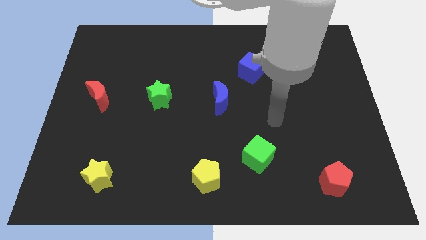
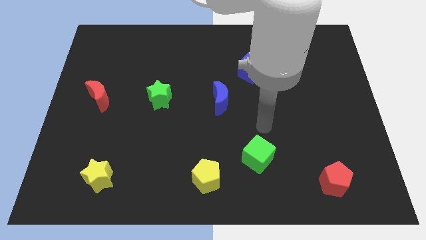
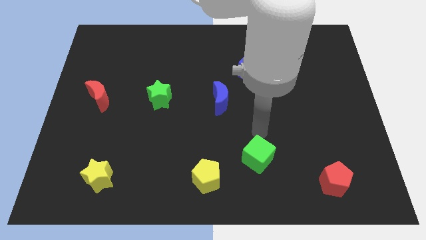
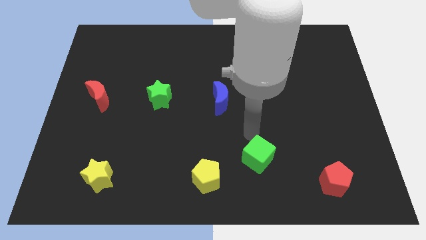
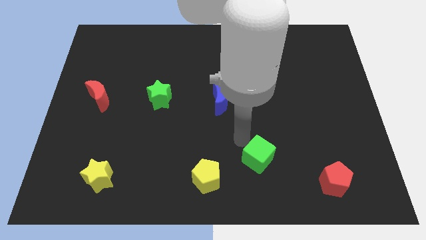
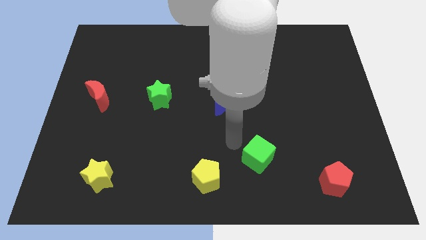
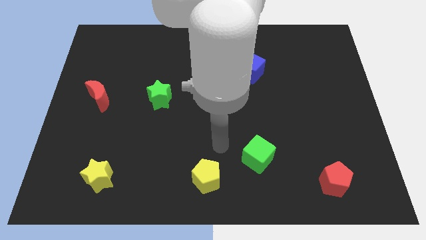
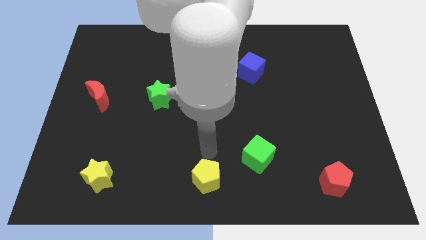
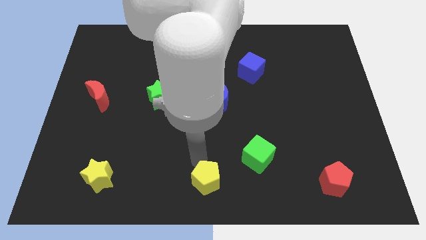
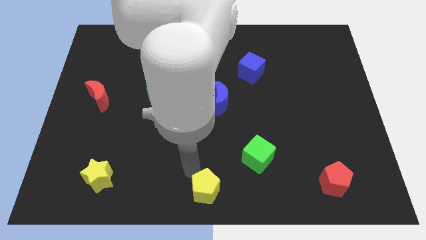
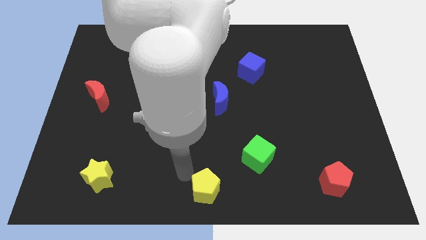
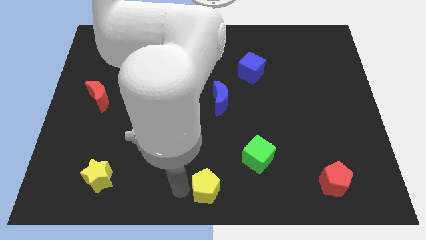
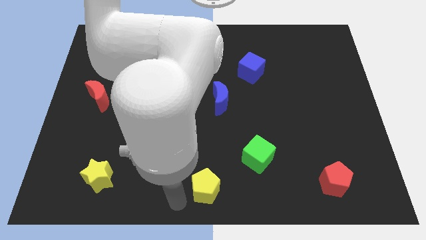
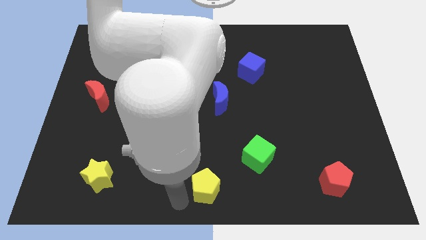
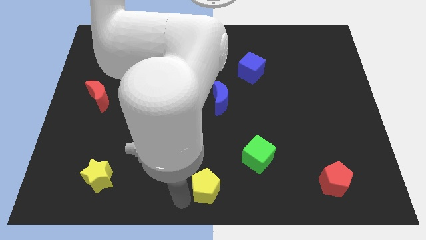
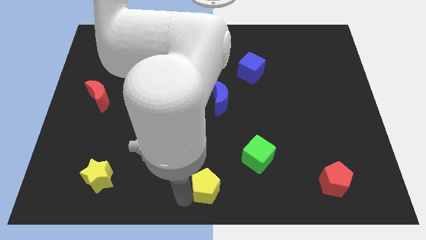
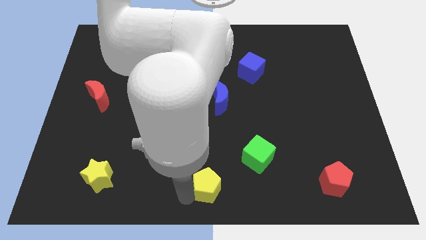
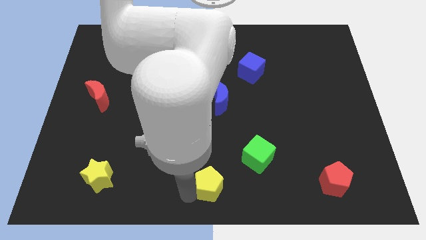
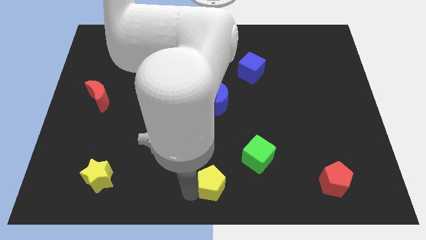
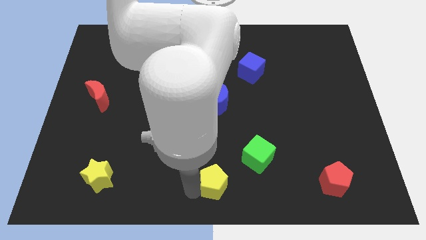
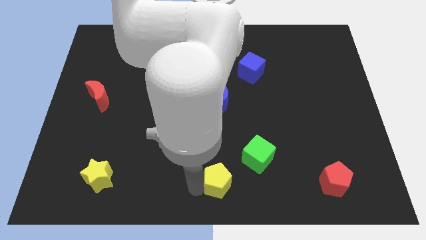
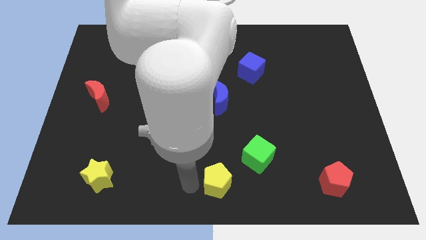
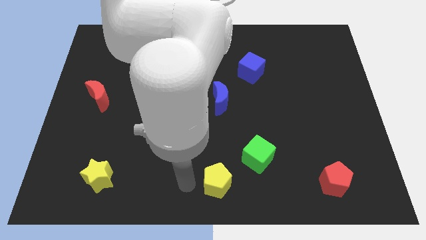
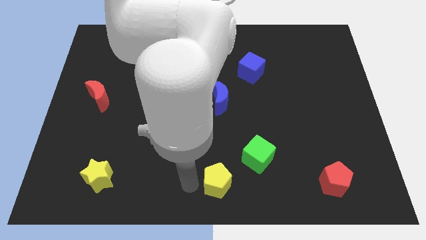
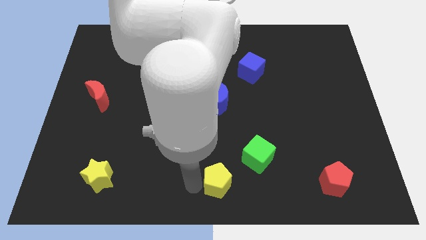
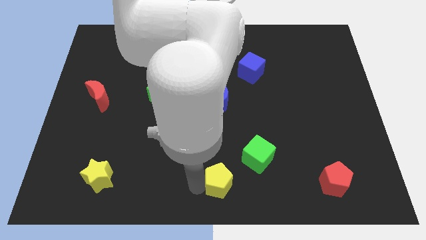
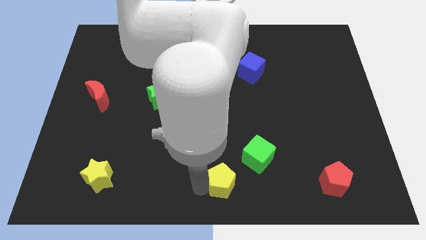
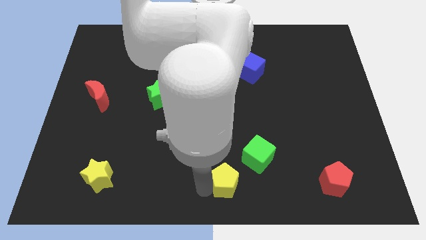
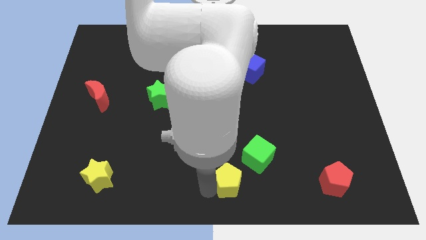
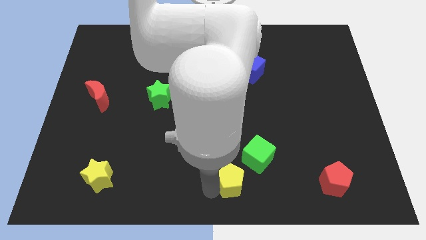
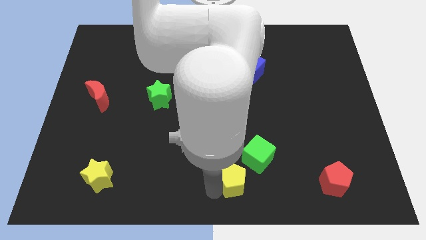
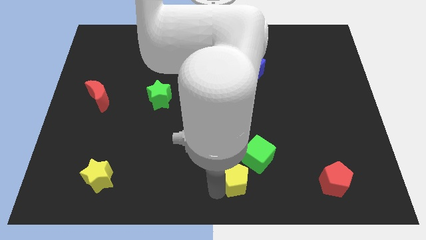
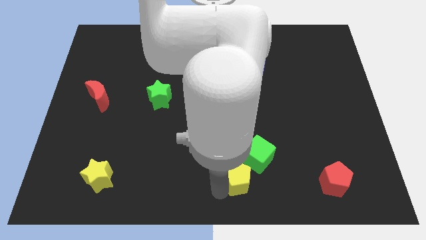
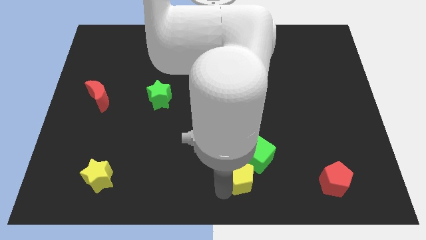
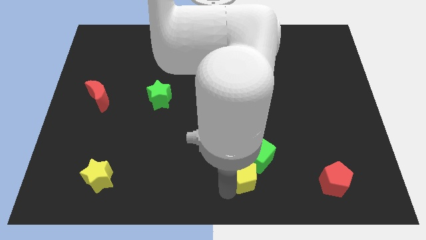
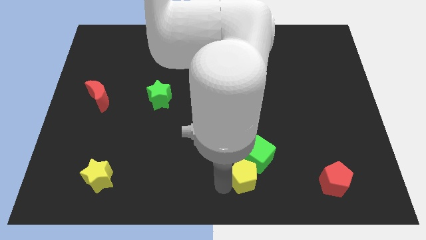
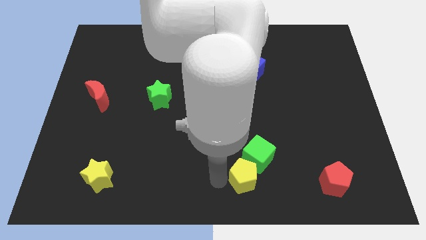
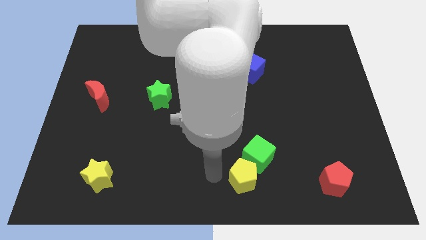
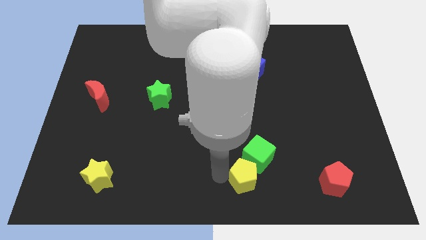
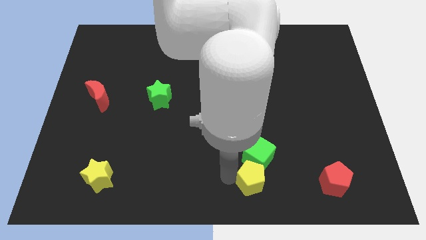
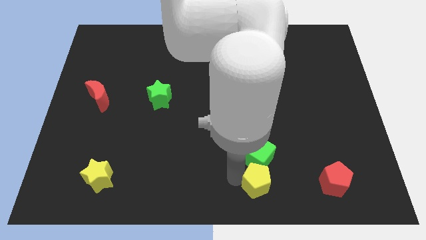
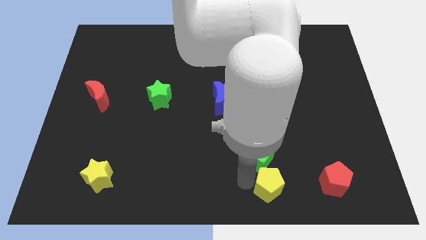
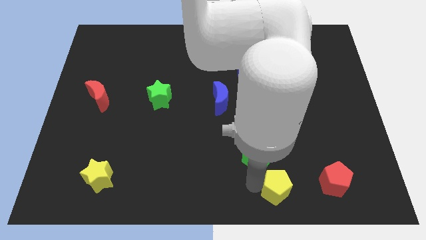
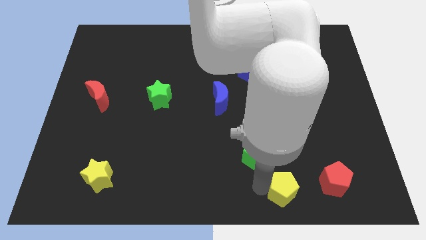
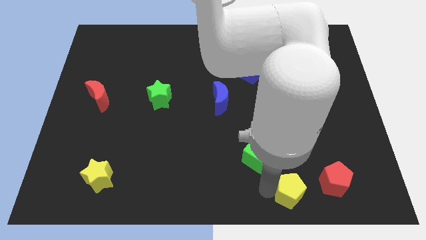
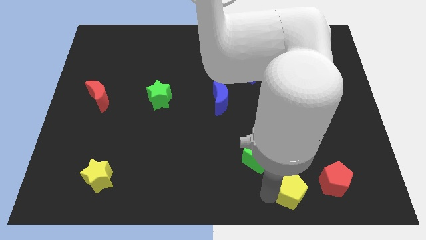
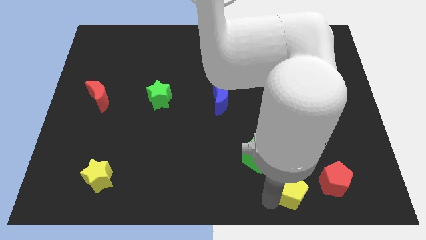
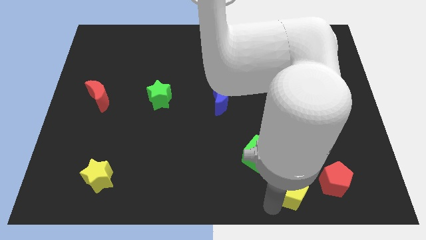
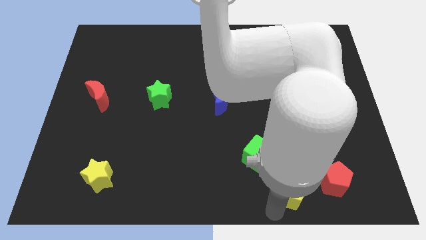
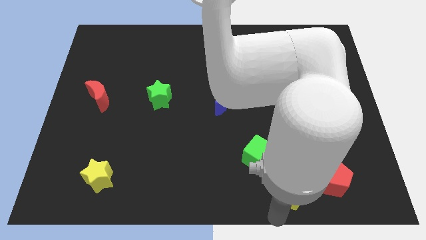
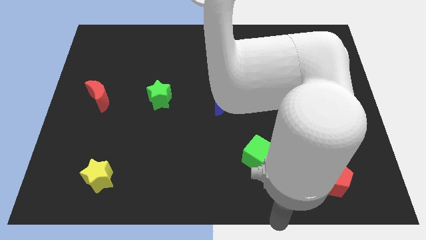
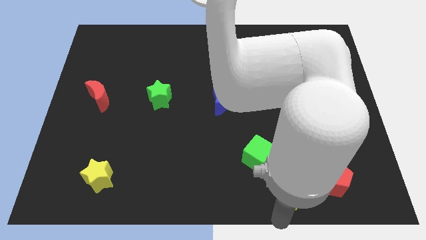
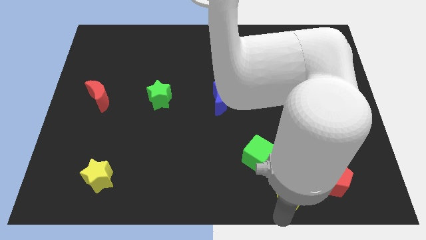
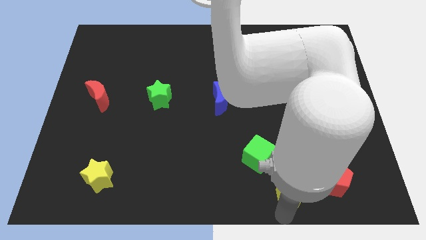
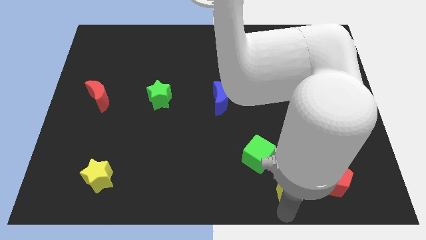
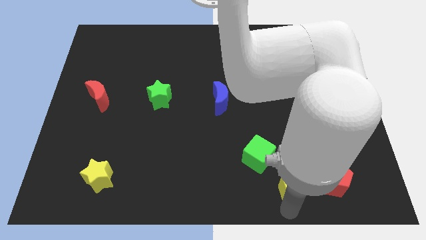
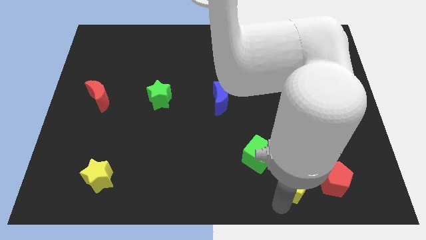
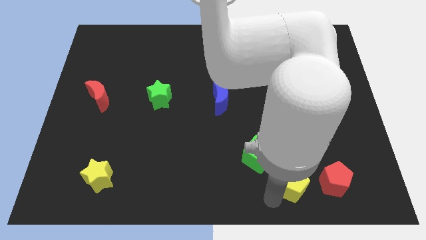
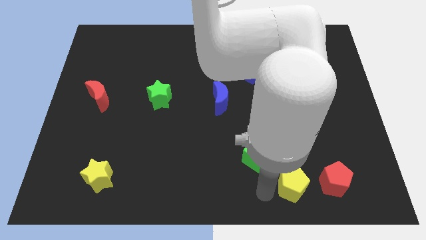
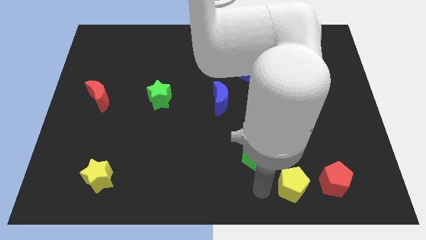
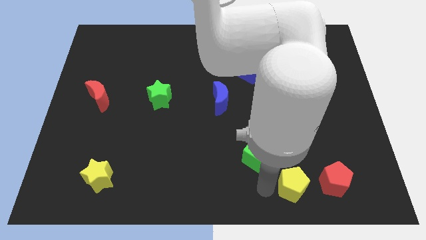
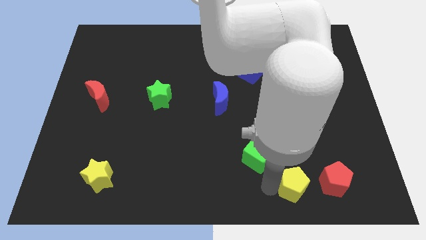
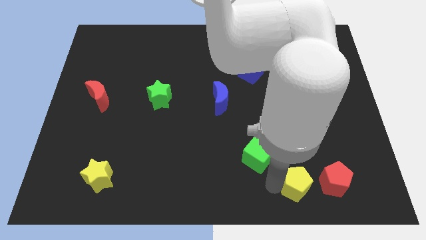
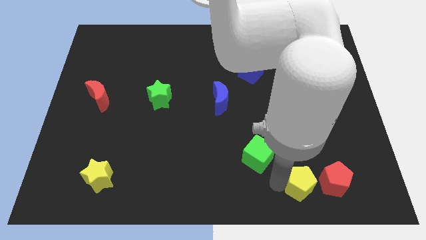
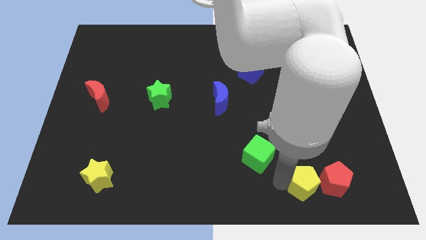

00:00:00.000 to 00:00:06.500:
move the yellow pentagon to the red pentagon

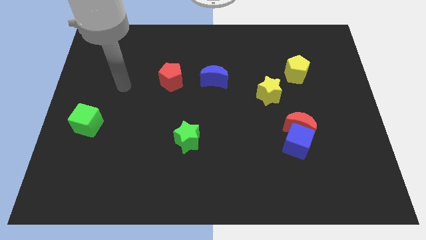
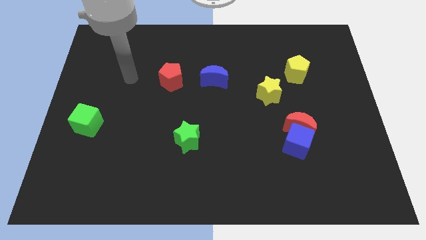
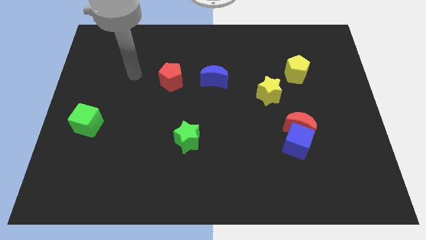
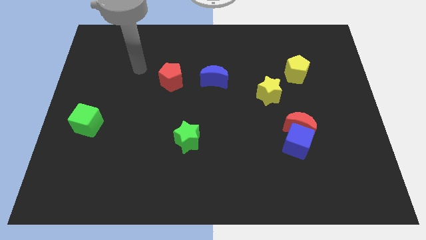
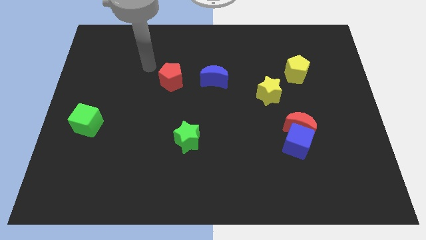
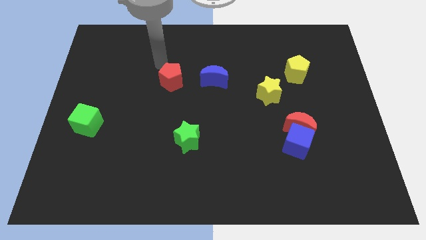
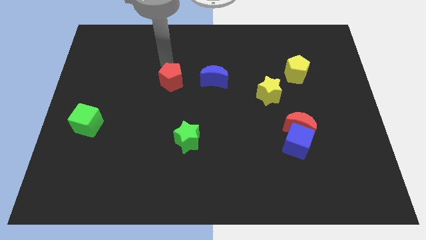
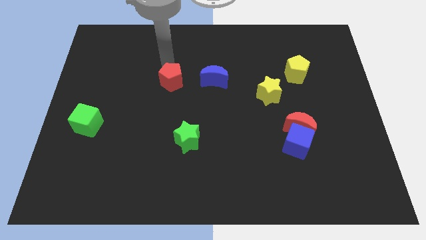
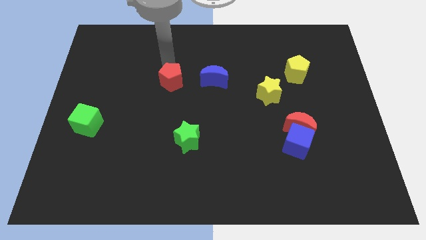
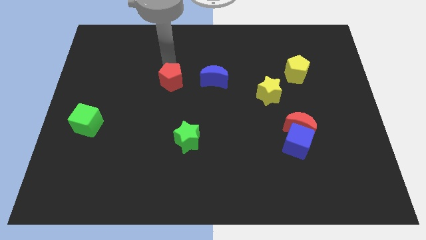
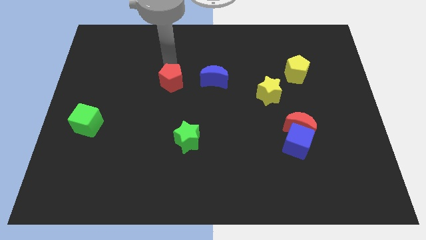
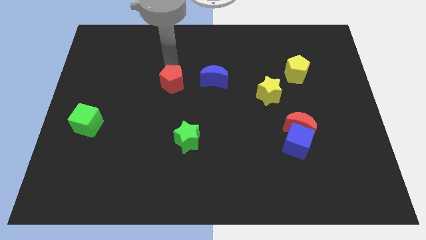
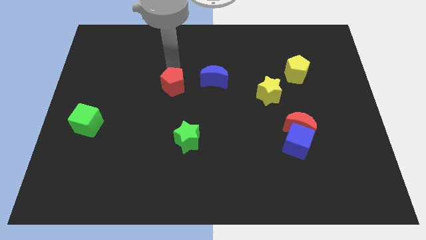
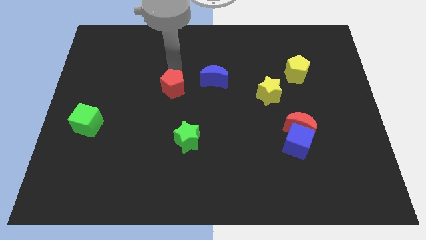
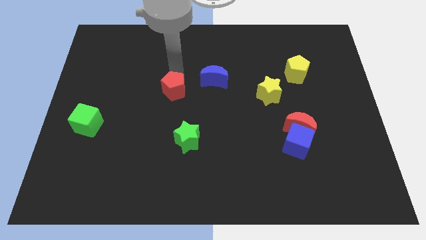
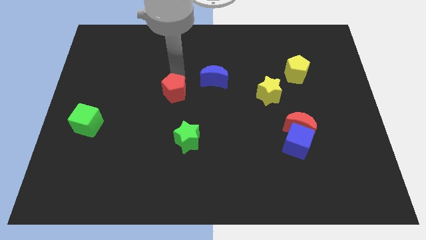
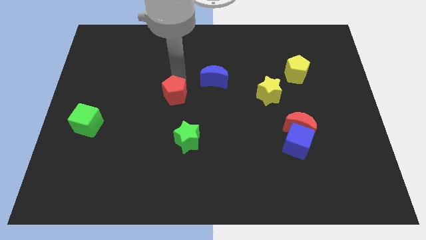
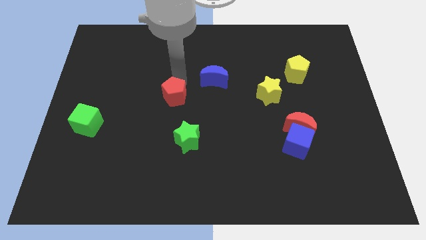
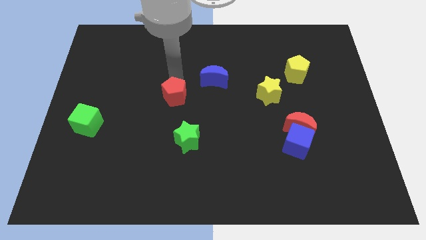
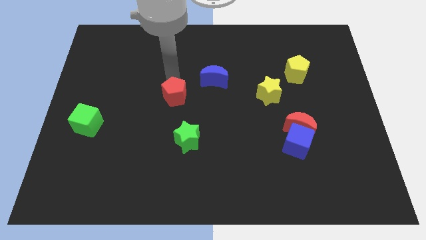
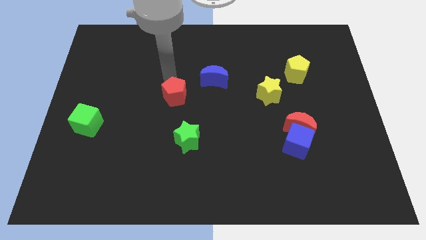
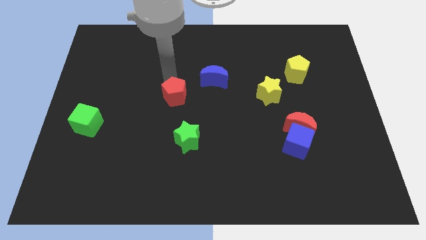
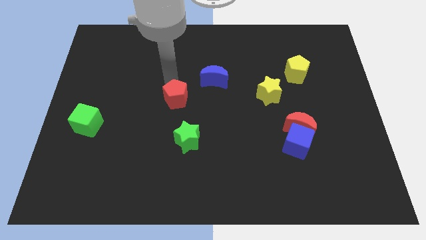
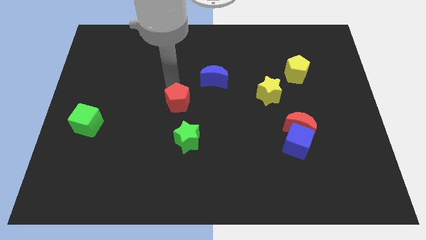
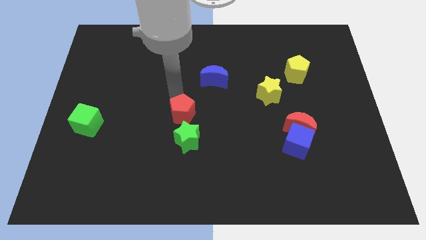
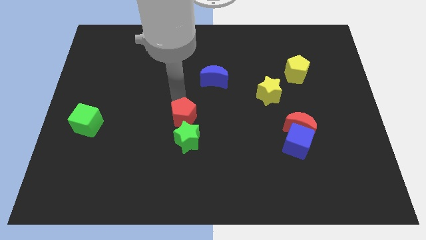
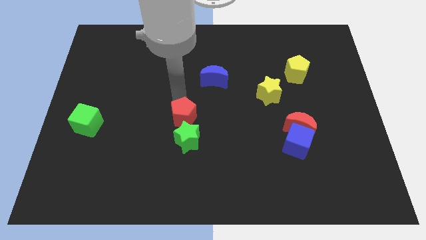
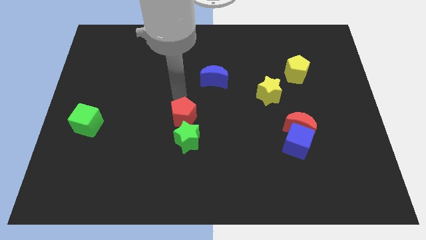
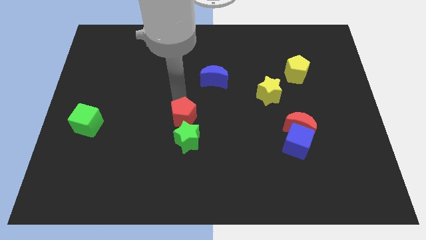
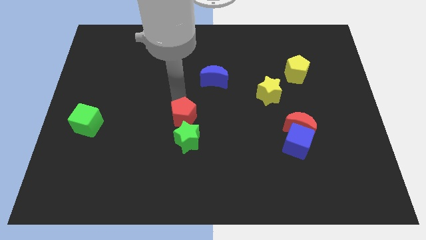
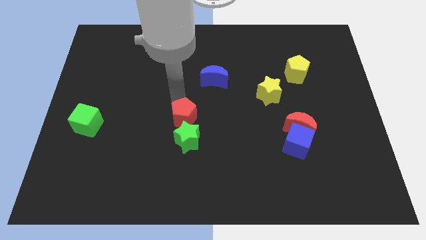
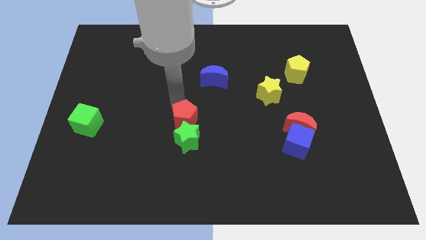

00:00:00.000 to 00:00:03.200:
push the red pentagon close to the green star
